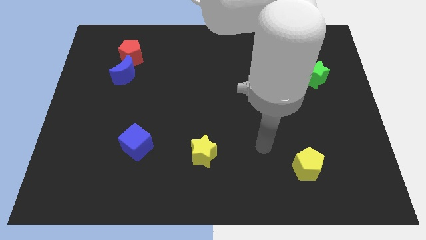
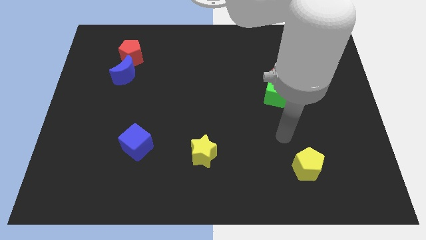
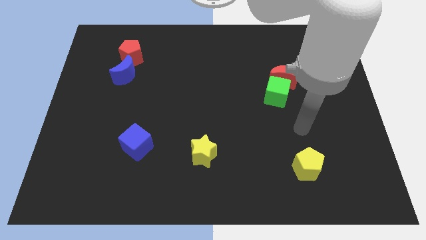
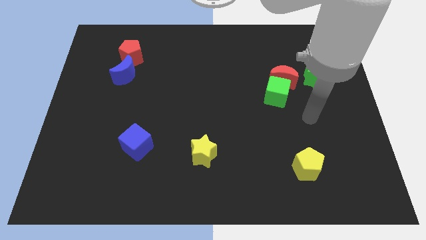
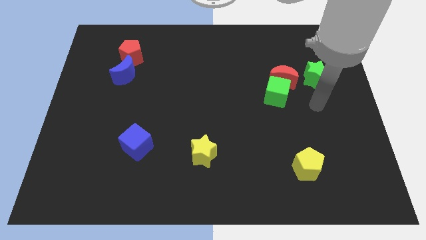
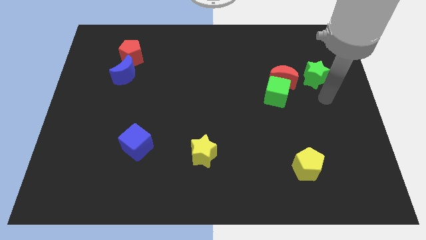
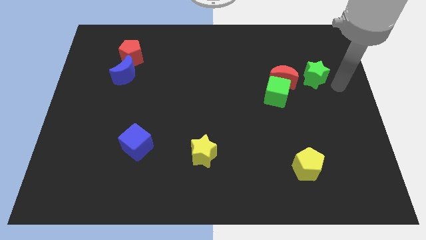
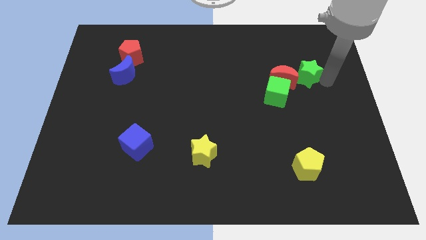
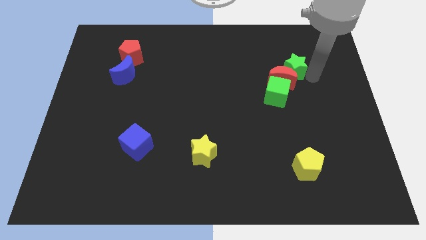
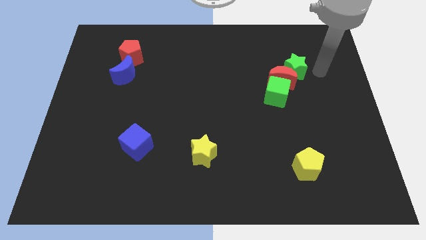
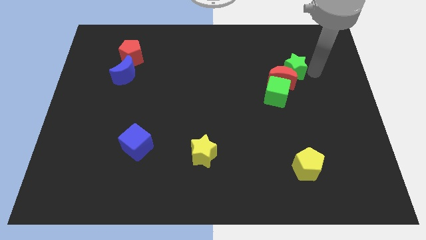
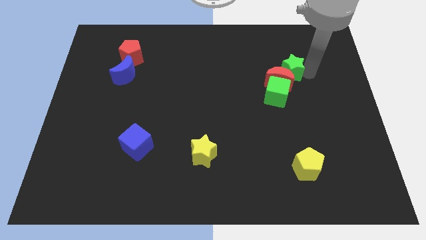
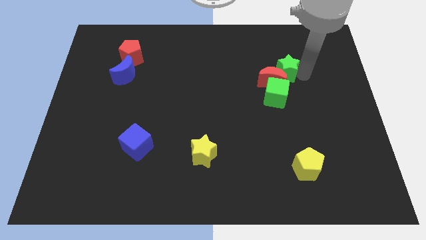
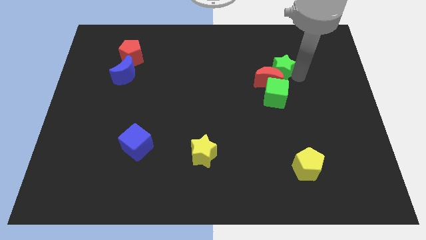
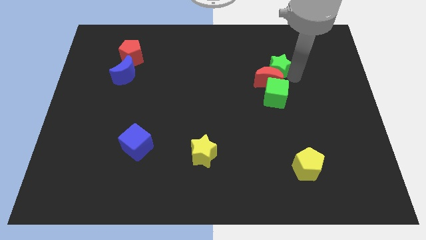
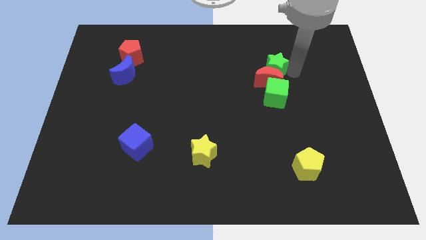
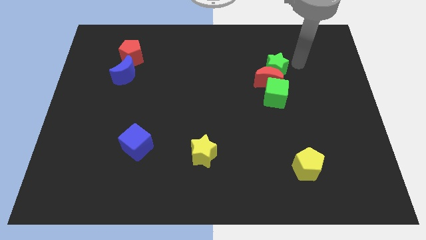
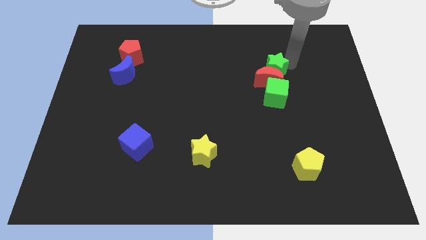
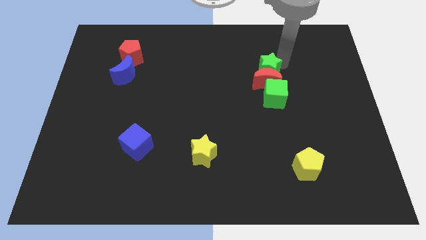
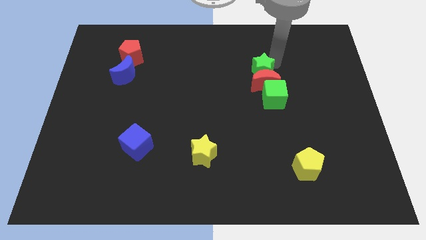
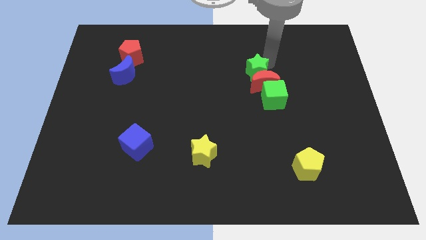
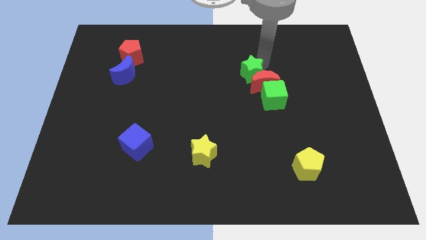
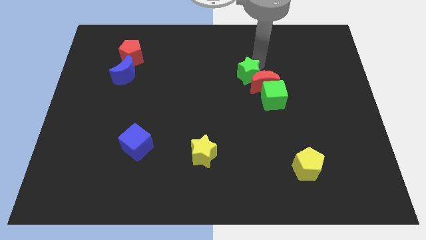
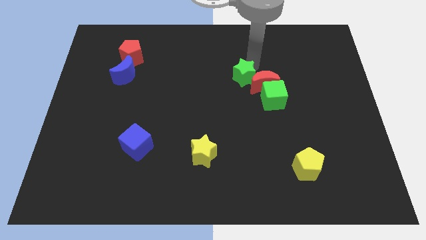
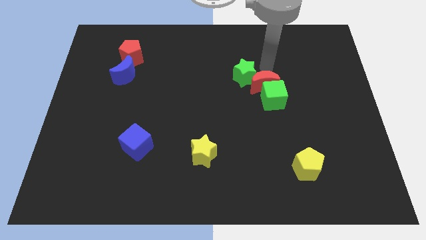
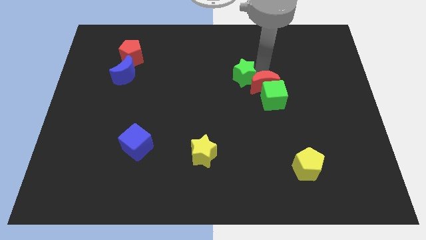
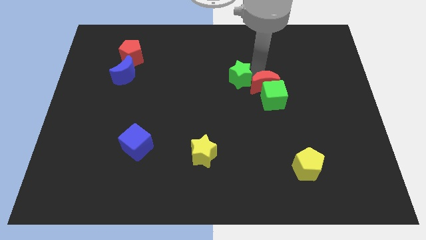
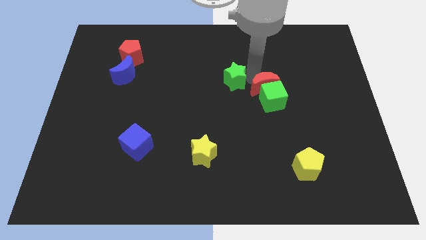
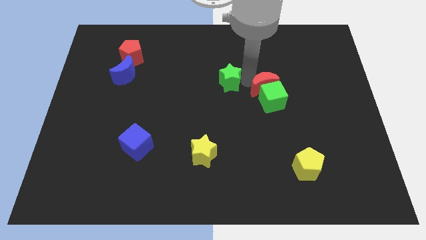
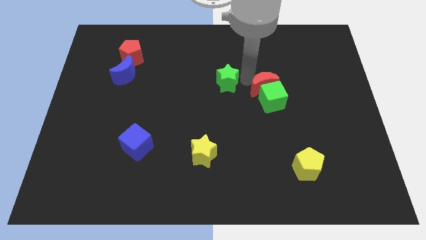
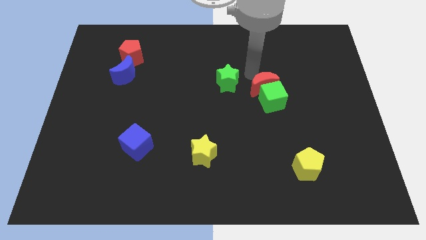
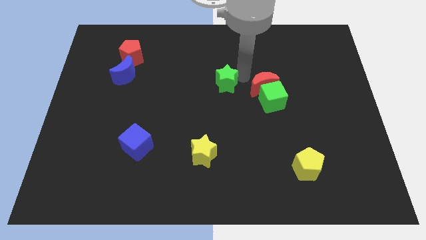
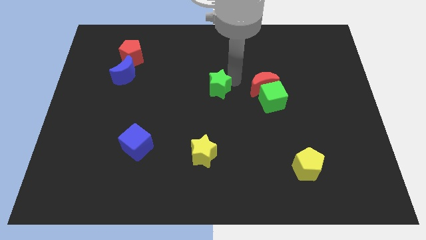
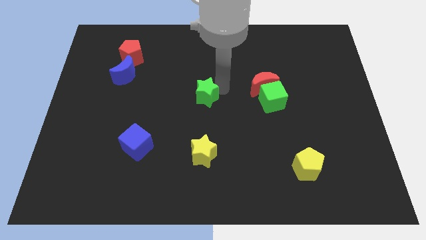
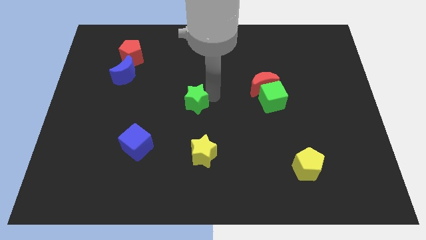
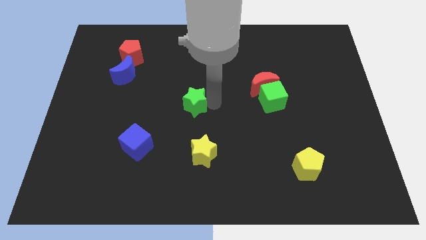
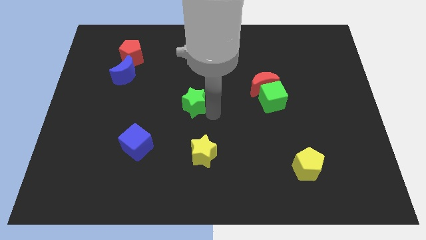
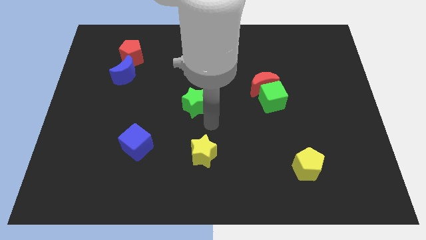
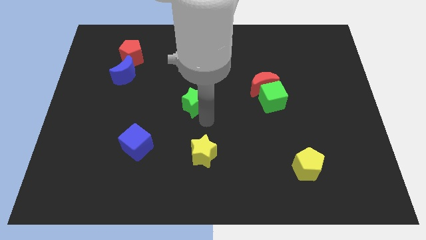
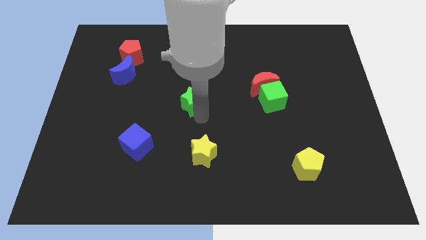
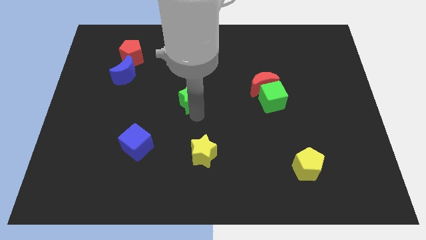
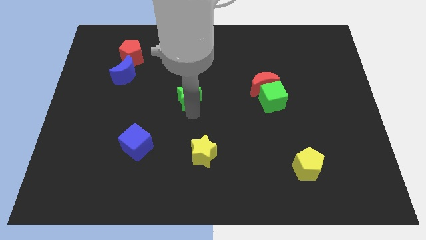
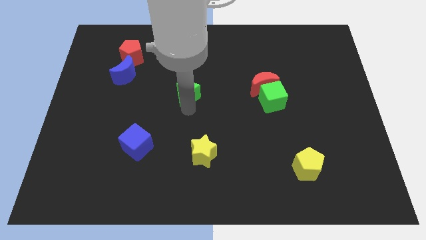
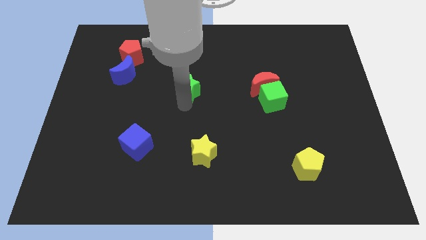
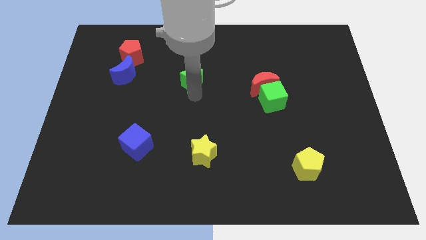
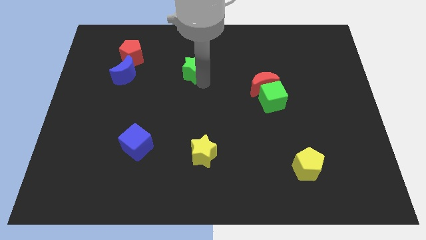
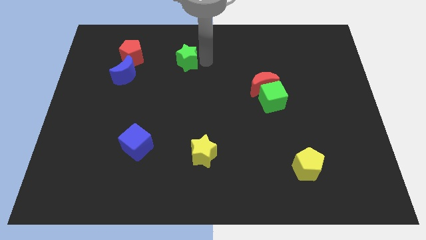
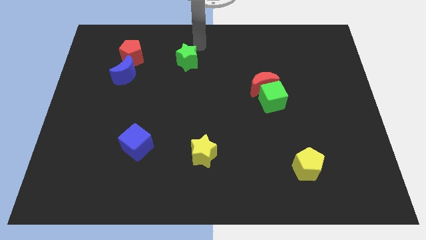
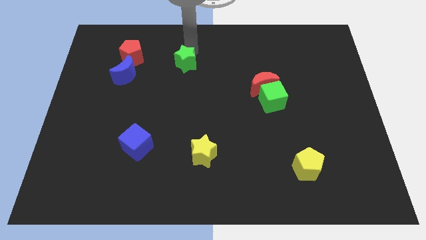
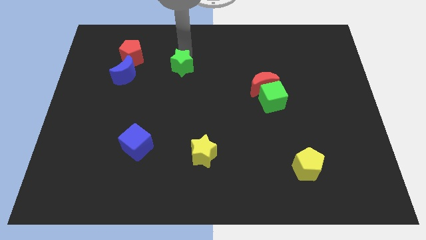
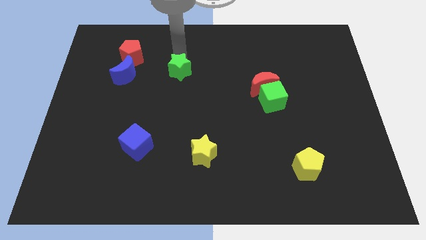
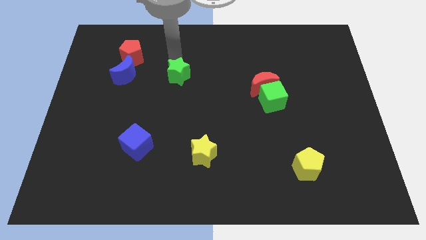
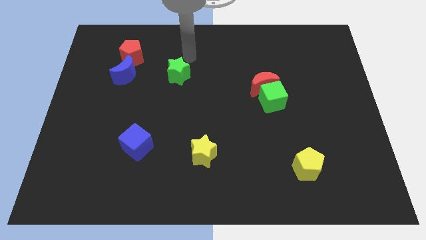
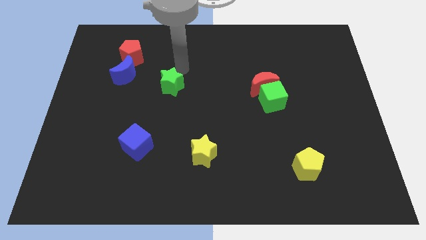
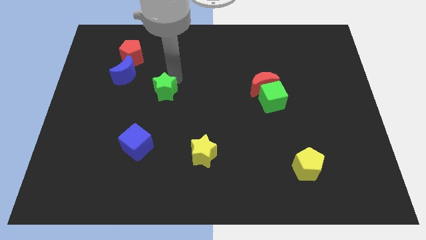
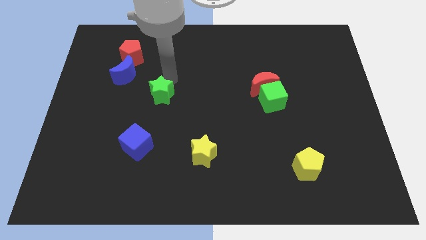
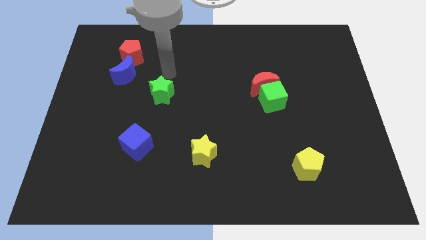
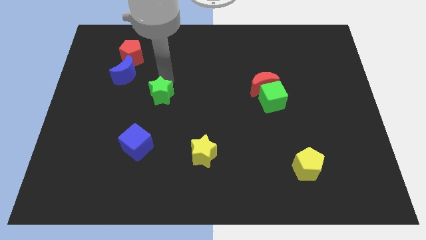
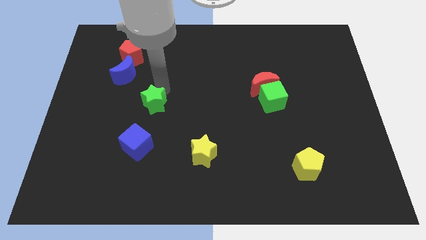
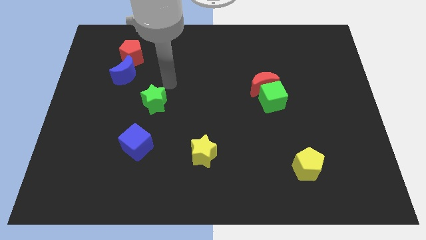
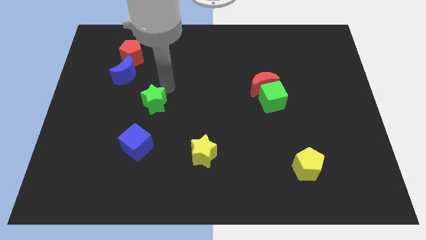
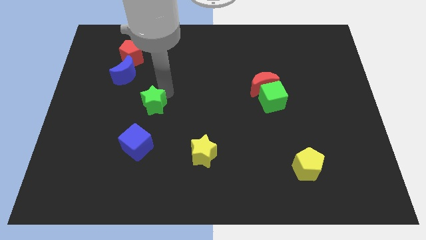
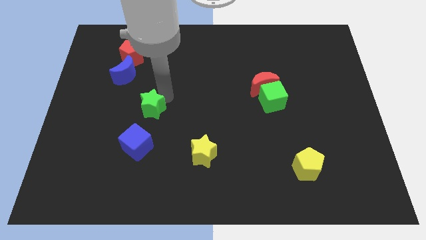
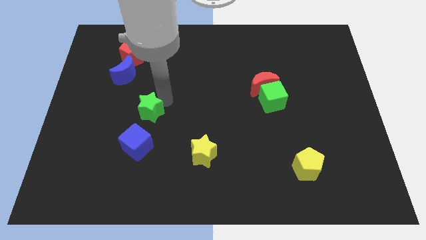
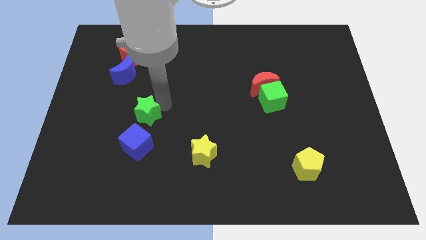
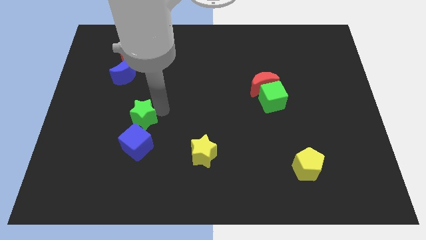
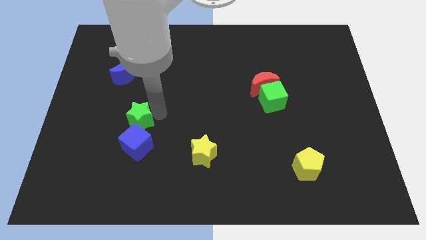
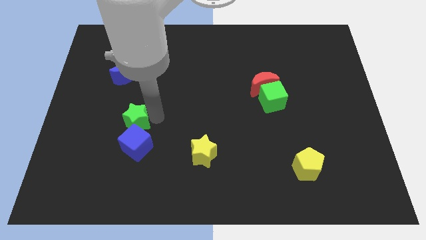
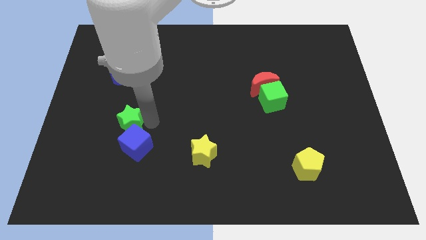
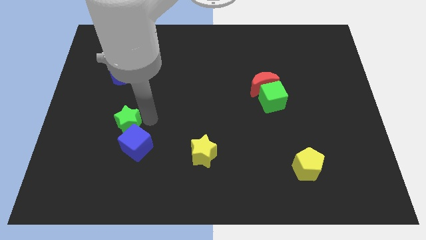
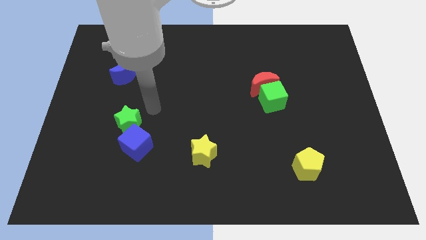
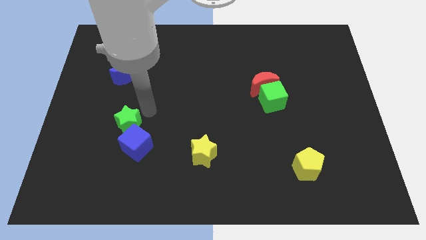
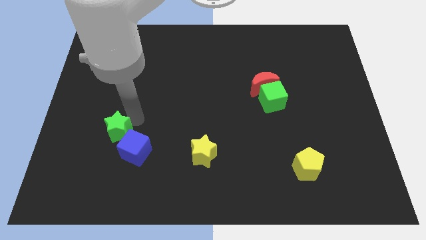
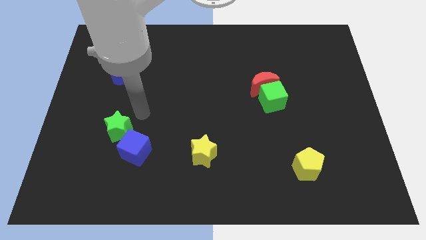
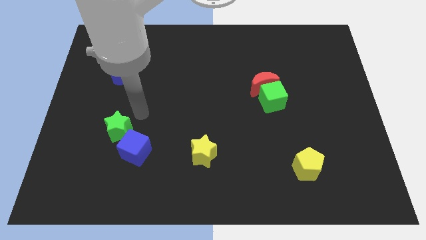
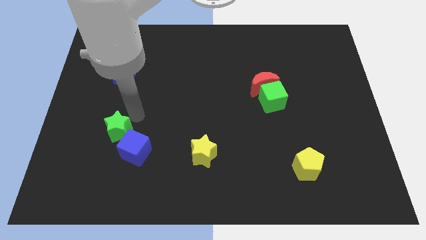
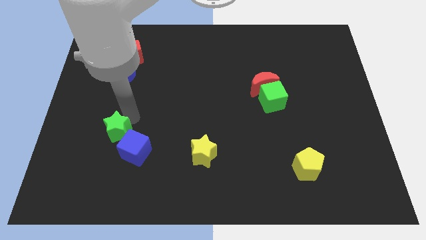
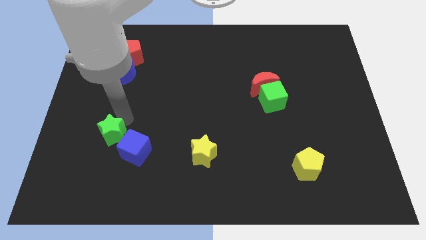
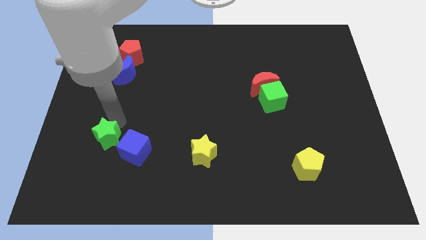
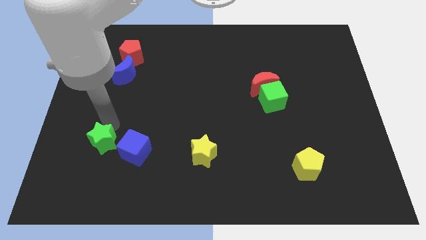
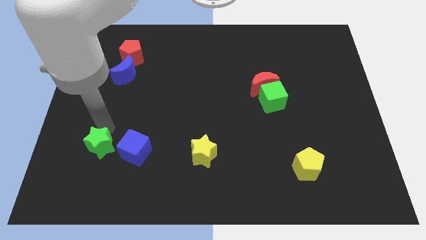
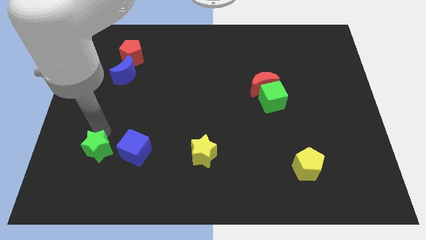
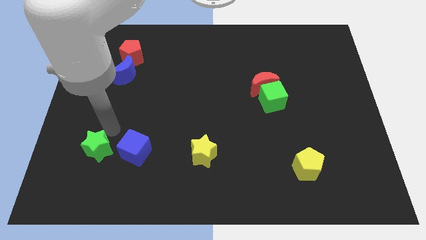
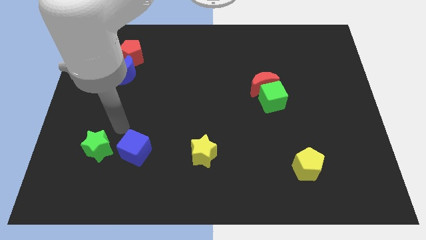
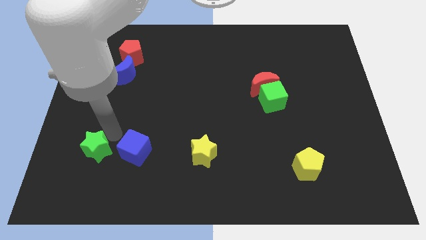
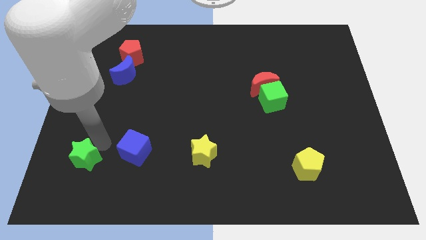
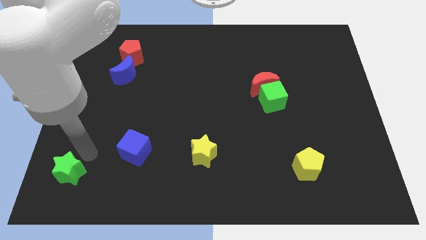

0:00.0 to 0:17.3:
put the green star to the lower left corner
